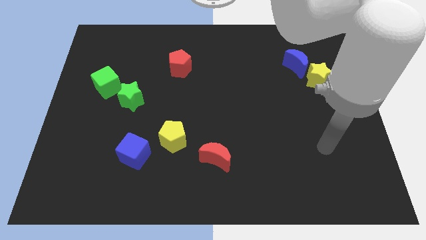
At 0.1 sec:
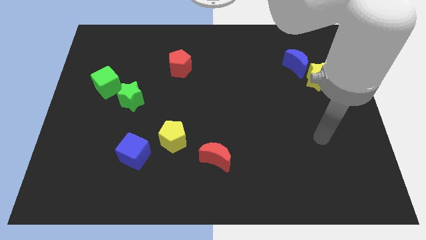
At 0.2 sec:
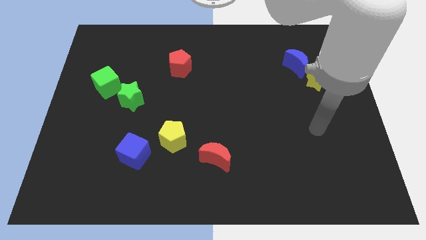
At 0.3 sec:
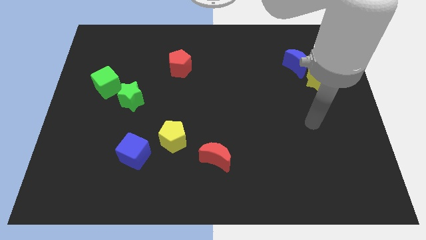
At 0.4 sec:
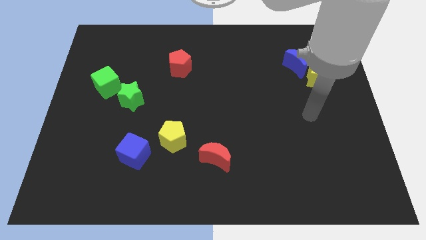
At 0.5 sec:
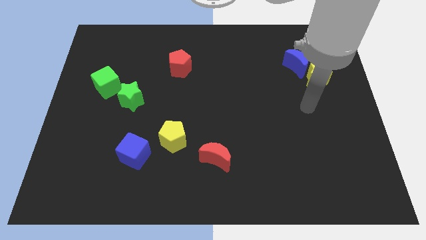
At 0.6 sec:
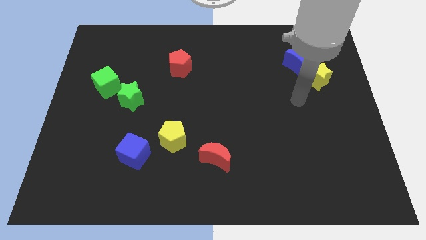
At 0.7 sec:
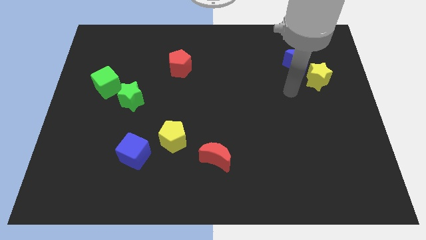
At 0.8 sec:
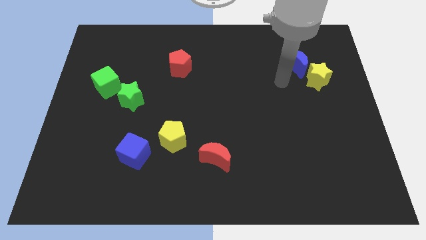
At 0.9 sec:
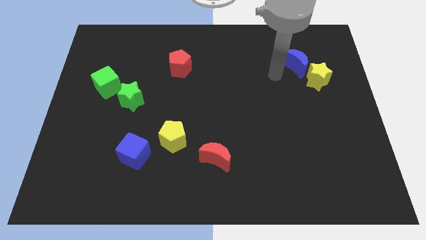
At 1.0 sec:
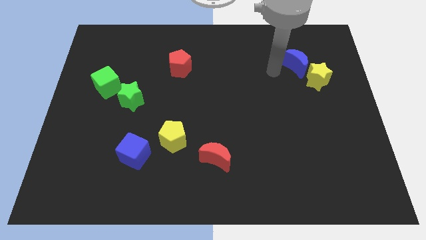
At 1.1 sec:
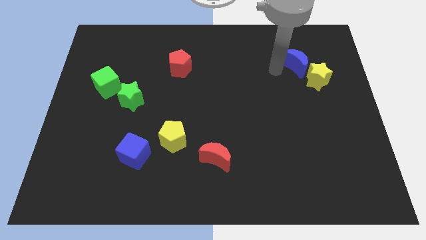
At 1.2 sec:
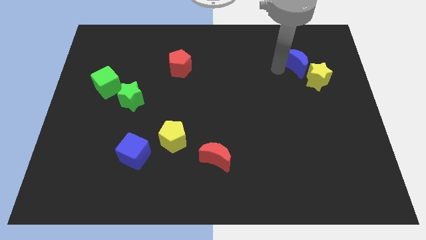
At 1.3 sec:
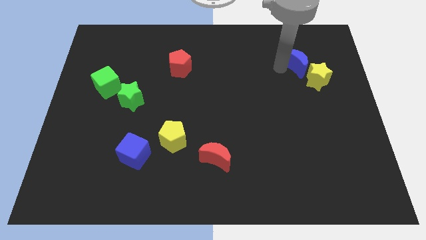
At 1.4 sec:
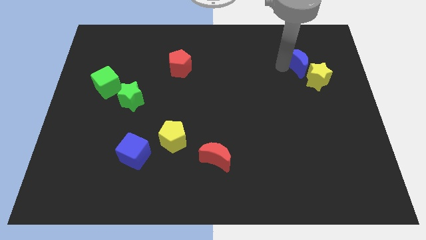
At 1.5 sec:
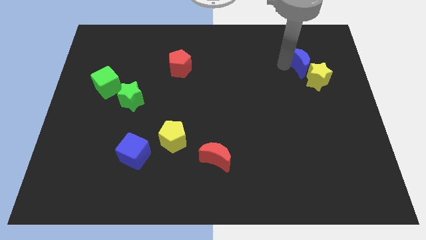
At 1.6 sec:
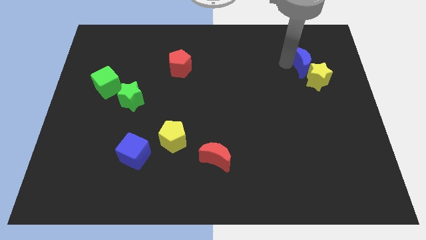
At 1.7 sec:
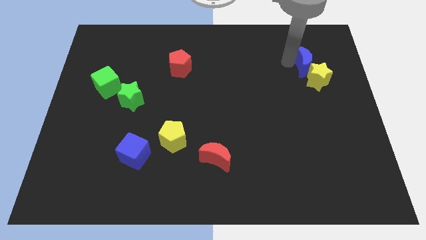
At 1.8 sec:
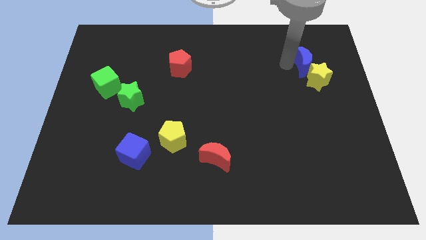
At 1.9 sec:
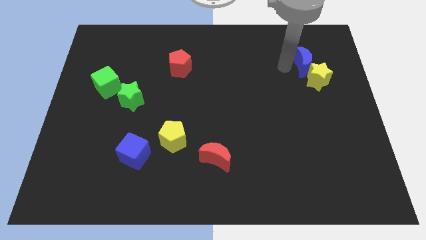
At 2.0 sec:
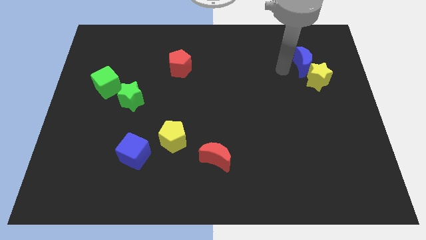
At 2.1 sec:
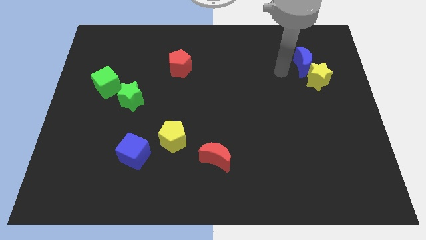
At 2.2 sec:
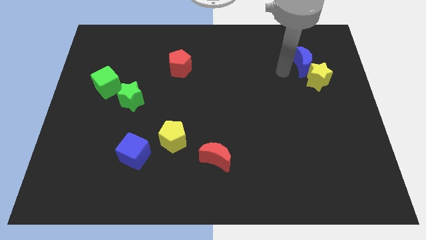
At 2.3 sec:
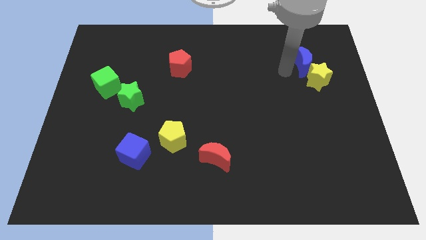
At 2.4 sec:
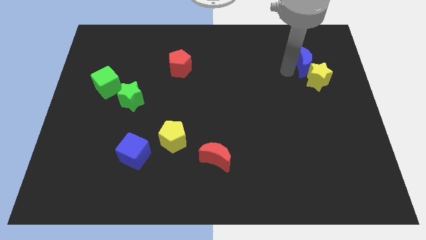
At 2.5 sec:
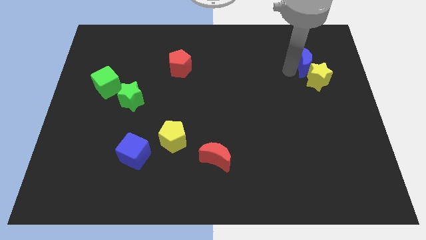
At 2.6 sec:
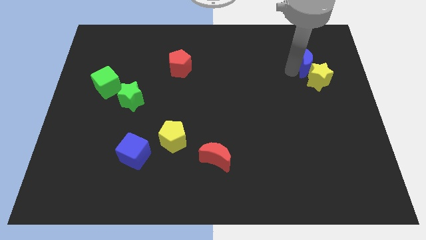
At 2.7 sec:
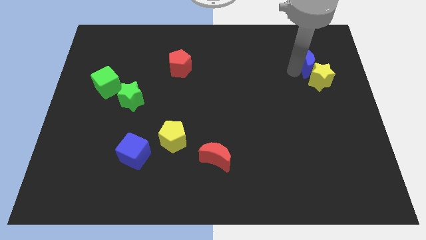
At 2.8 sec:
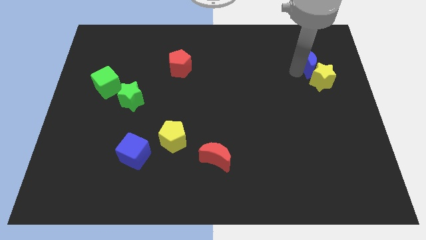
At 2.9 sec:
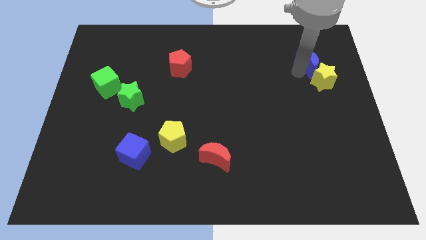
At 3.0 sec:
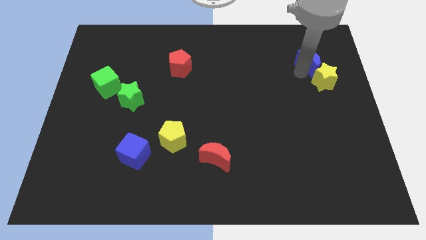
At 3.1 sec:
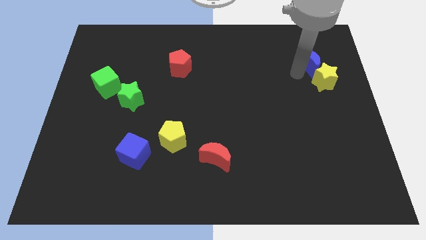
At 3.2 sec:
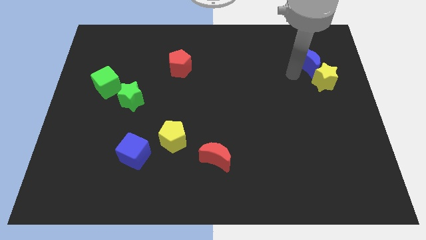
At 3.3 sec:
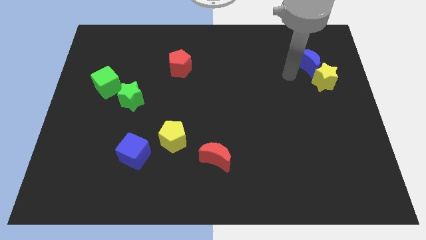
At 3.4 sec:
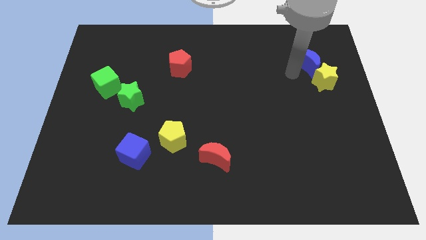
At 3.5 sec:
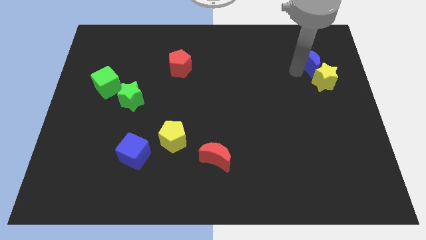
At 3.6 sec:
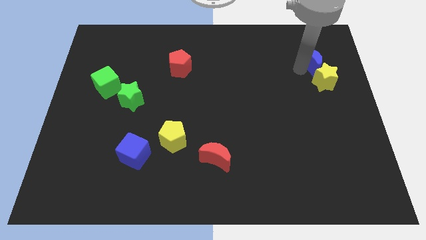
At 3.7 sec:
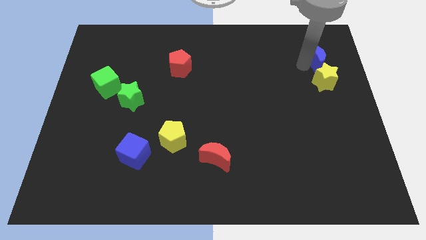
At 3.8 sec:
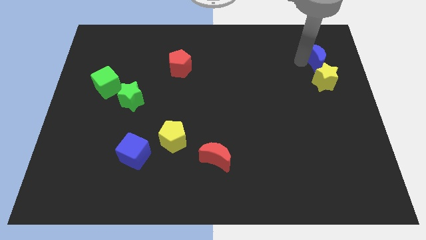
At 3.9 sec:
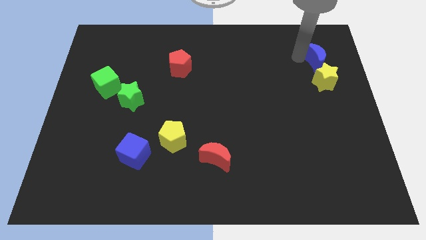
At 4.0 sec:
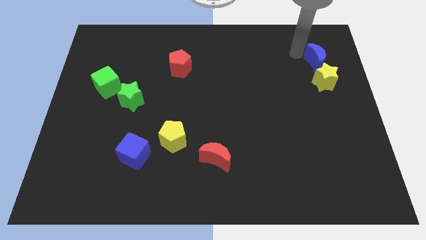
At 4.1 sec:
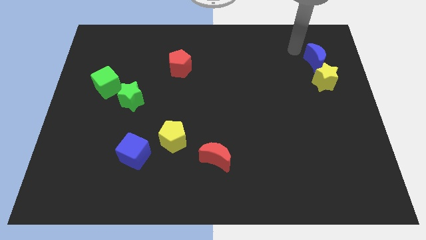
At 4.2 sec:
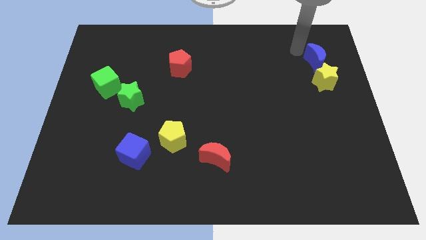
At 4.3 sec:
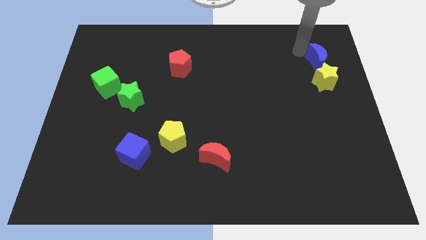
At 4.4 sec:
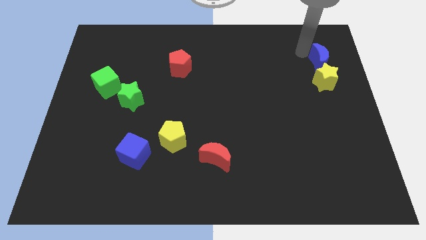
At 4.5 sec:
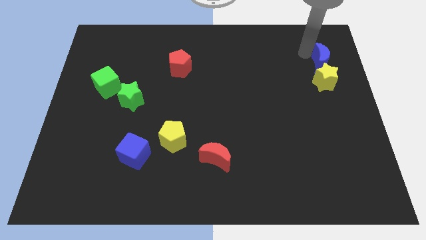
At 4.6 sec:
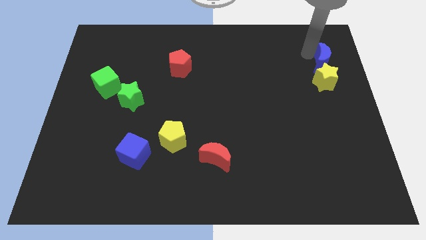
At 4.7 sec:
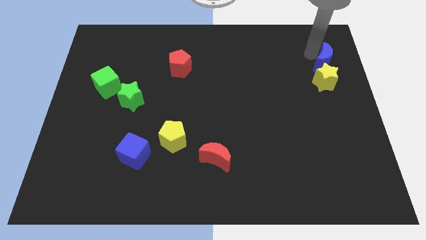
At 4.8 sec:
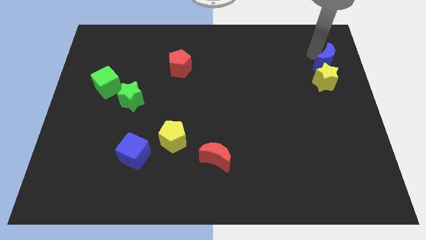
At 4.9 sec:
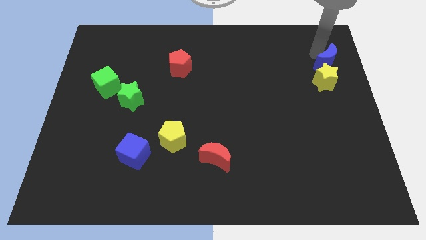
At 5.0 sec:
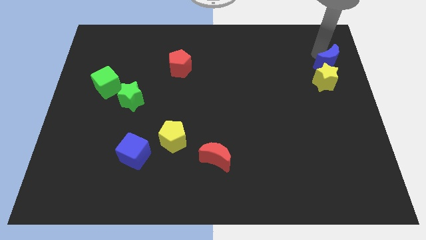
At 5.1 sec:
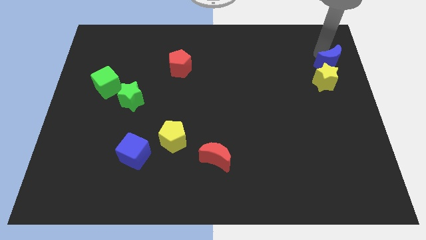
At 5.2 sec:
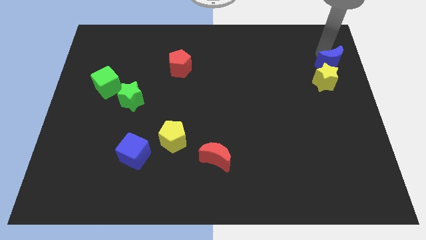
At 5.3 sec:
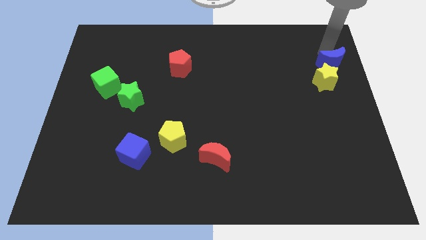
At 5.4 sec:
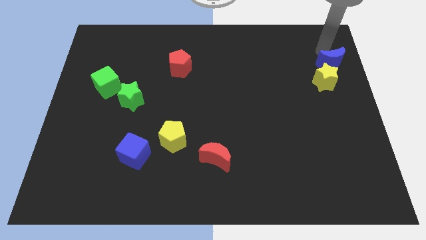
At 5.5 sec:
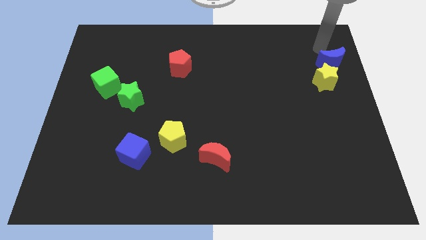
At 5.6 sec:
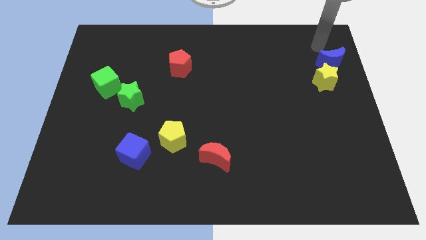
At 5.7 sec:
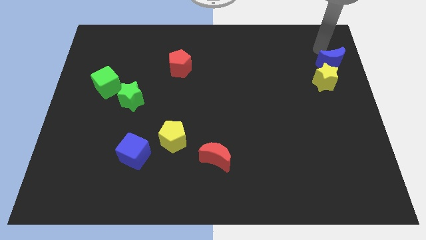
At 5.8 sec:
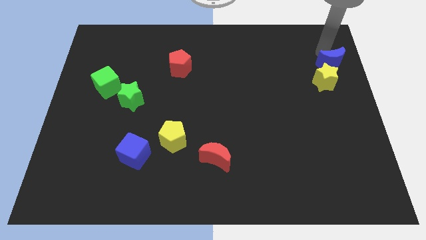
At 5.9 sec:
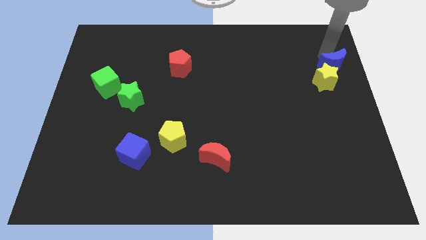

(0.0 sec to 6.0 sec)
slide the blue moon to the center right

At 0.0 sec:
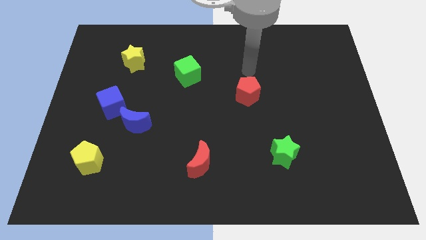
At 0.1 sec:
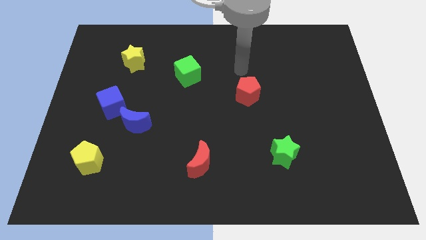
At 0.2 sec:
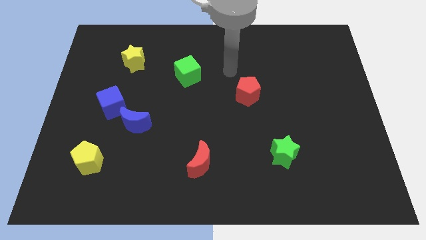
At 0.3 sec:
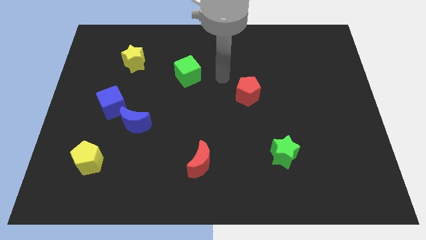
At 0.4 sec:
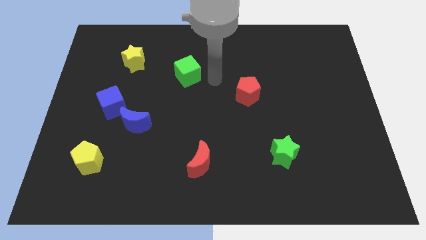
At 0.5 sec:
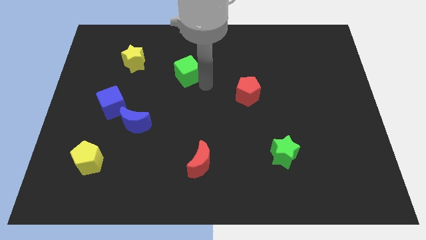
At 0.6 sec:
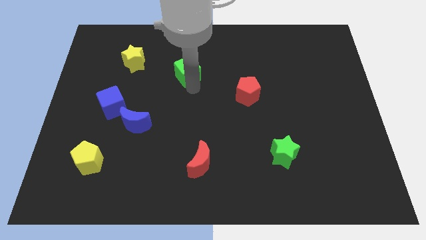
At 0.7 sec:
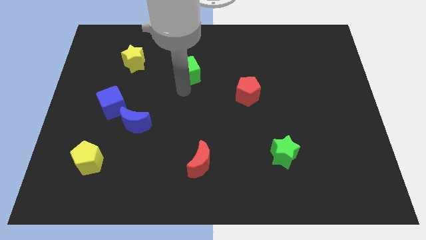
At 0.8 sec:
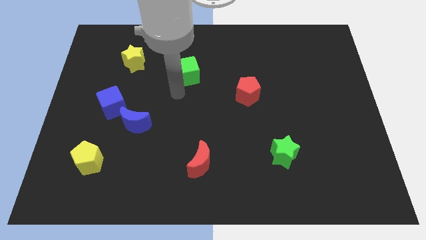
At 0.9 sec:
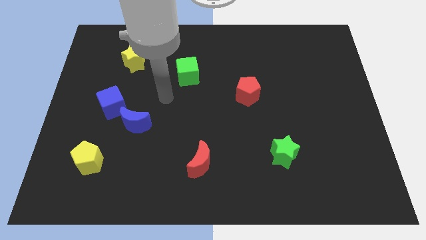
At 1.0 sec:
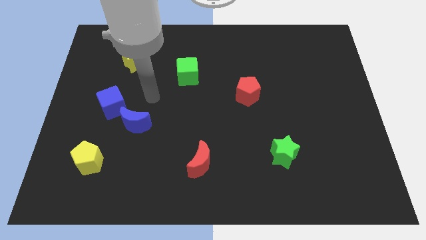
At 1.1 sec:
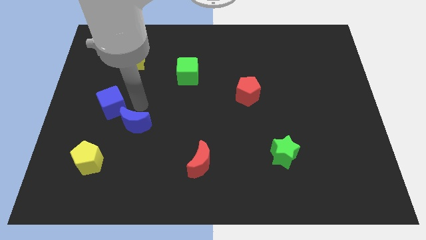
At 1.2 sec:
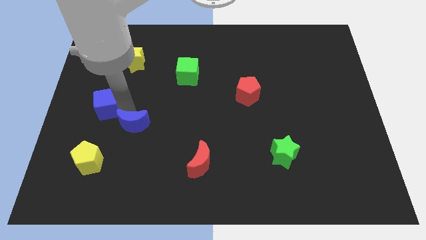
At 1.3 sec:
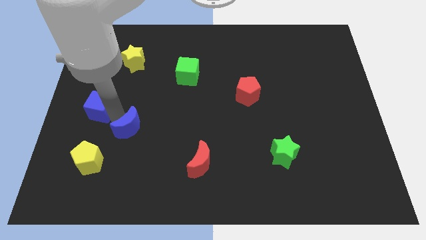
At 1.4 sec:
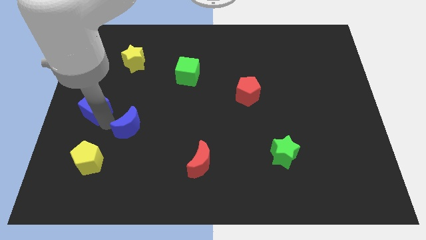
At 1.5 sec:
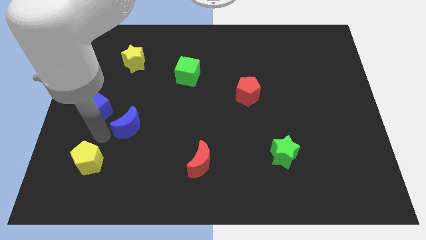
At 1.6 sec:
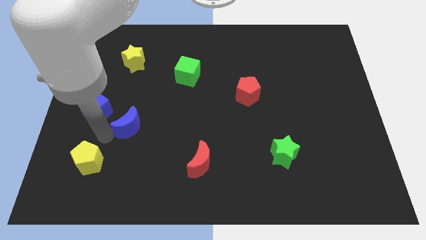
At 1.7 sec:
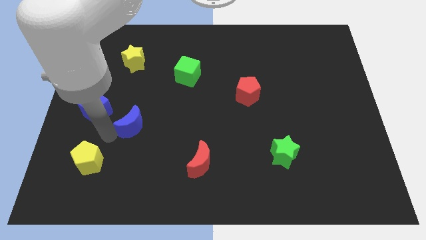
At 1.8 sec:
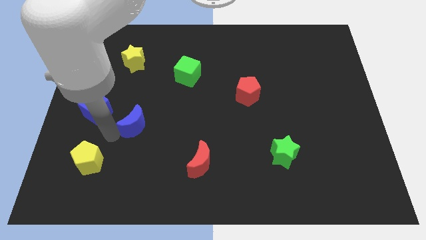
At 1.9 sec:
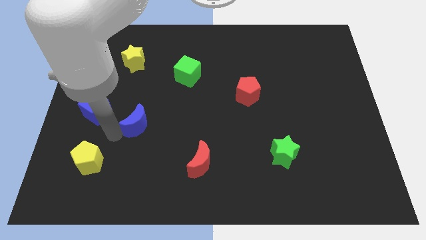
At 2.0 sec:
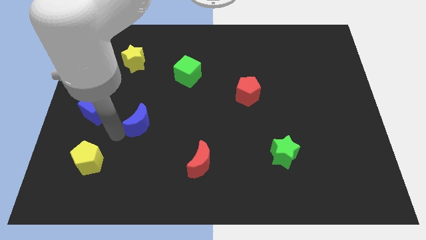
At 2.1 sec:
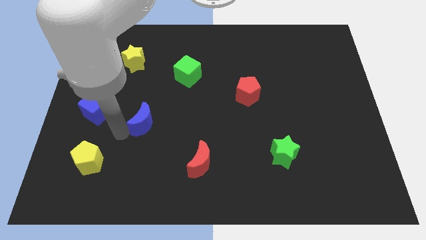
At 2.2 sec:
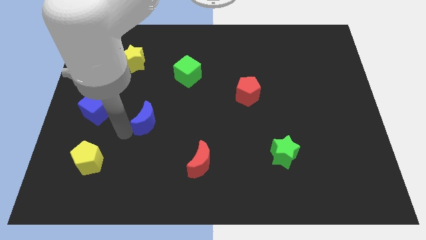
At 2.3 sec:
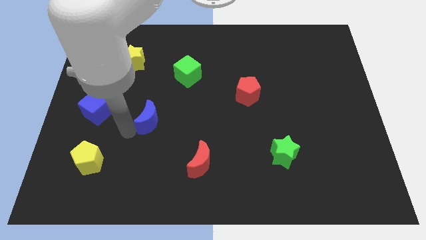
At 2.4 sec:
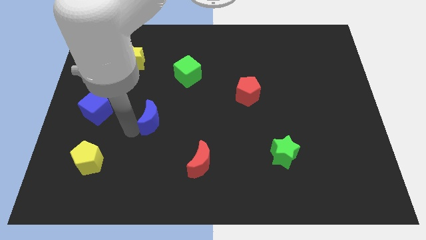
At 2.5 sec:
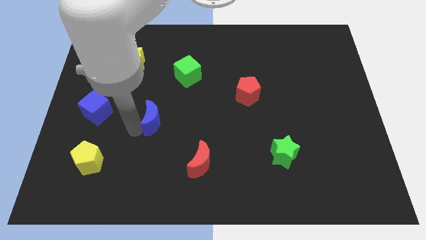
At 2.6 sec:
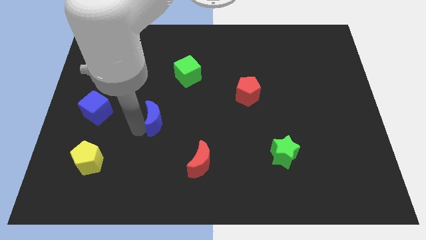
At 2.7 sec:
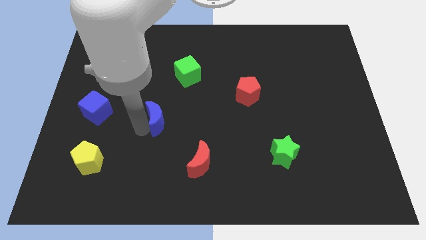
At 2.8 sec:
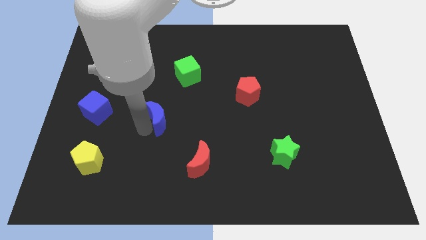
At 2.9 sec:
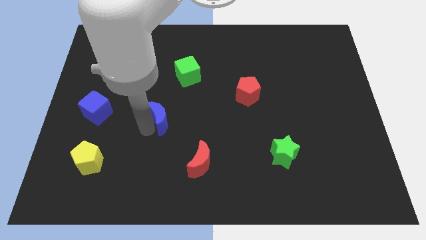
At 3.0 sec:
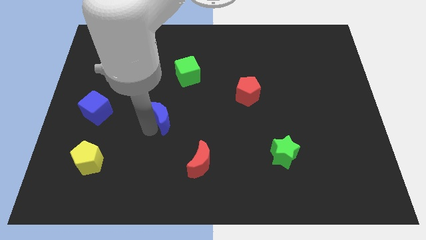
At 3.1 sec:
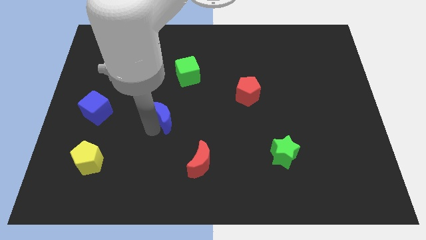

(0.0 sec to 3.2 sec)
move the blue moon to the middle
